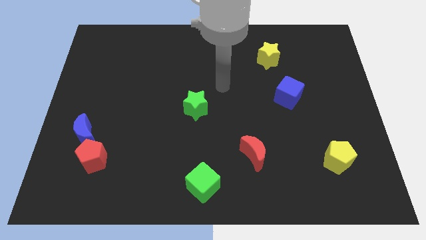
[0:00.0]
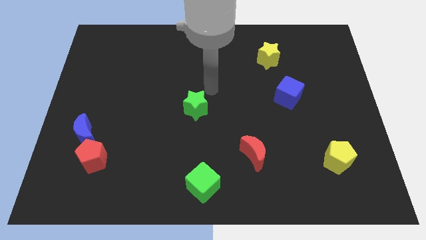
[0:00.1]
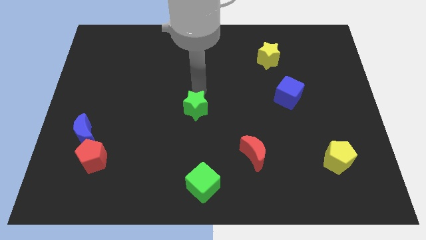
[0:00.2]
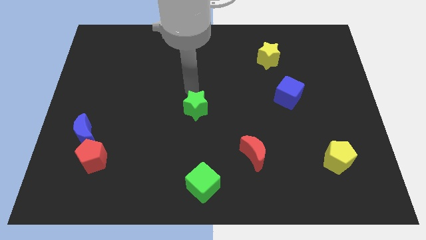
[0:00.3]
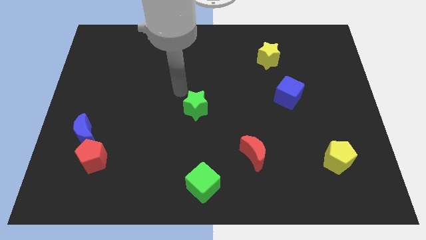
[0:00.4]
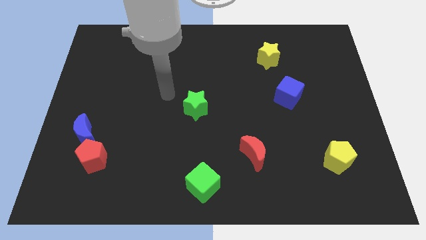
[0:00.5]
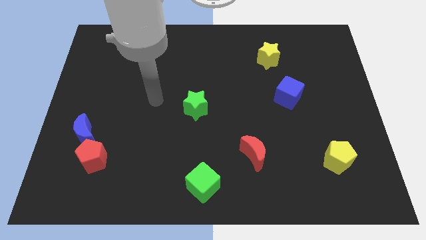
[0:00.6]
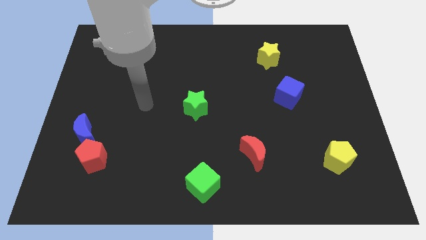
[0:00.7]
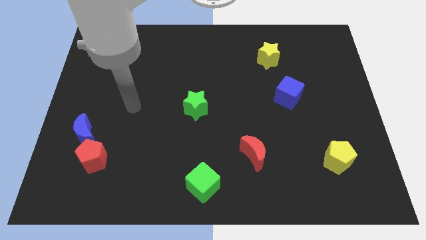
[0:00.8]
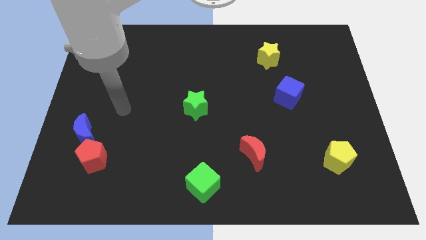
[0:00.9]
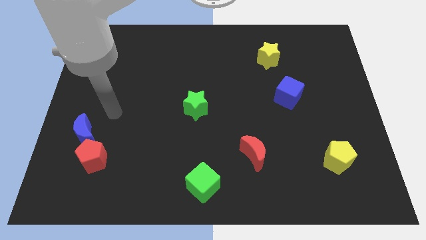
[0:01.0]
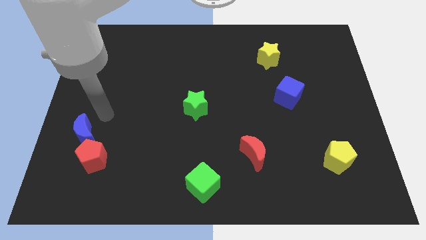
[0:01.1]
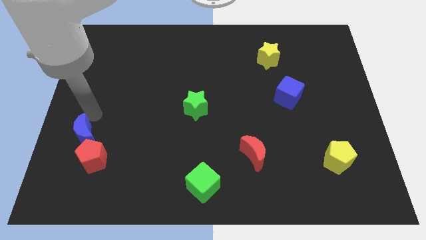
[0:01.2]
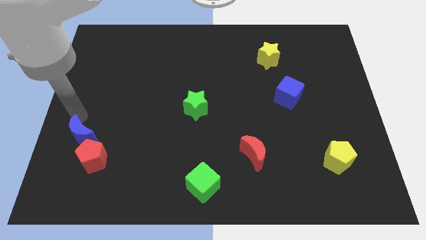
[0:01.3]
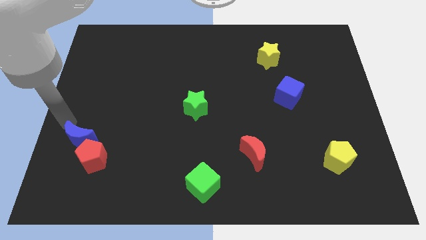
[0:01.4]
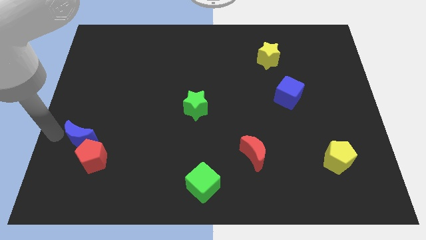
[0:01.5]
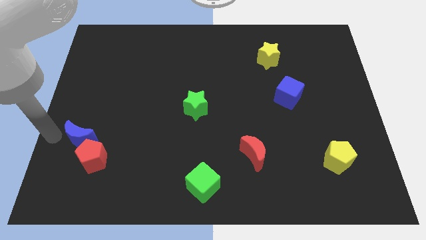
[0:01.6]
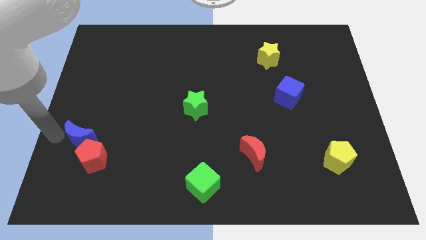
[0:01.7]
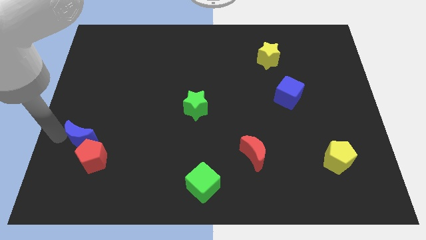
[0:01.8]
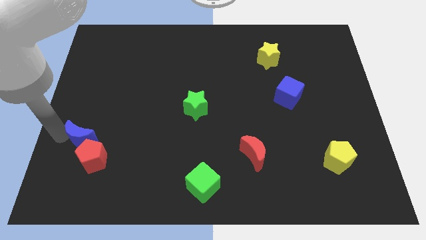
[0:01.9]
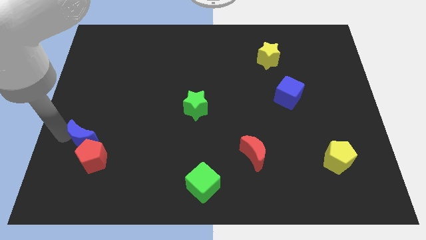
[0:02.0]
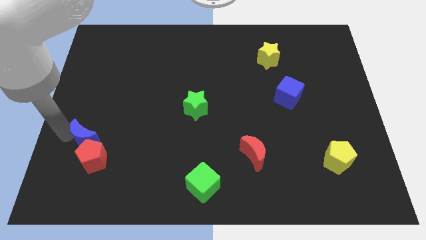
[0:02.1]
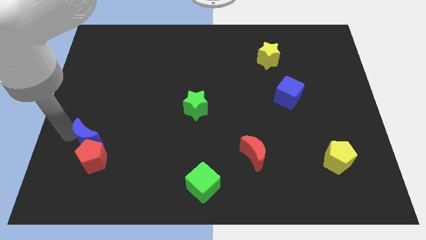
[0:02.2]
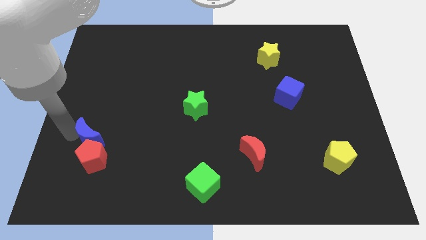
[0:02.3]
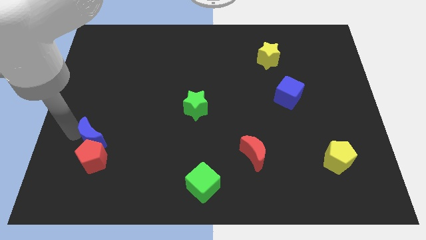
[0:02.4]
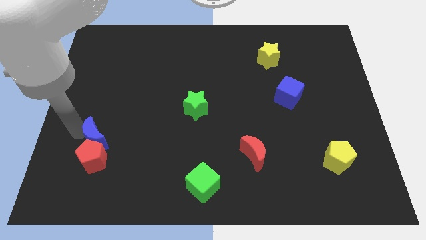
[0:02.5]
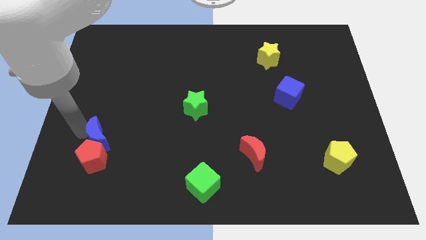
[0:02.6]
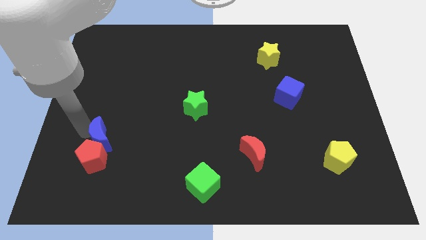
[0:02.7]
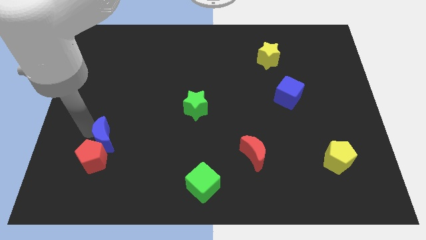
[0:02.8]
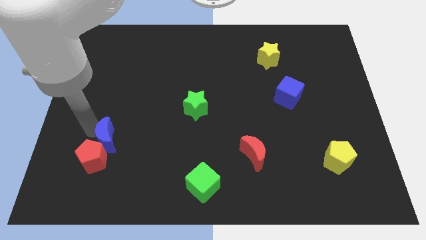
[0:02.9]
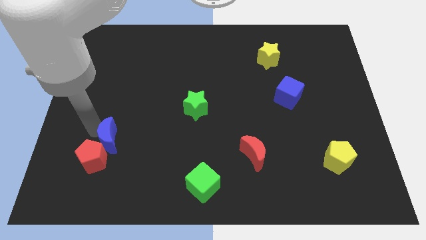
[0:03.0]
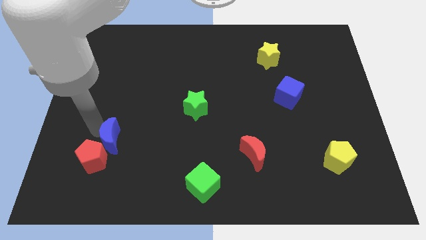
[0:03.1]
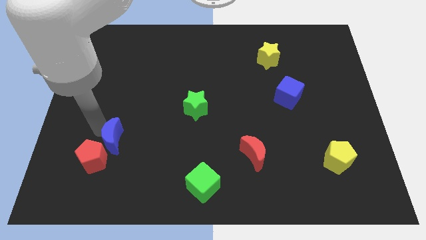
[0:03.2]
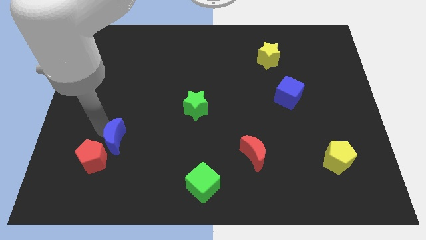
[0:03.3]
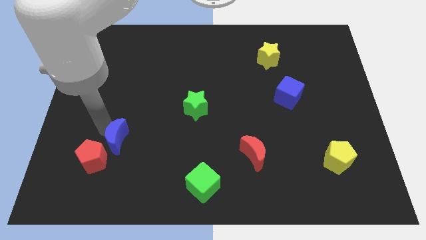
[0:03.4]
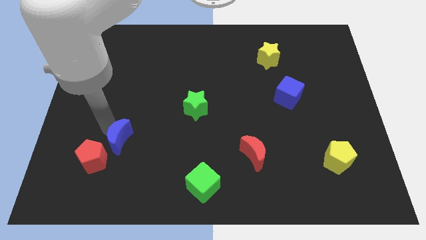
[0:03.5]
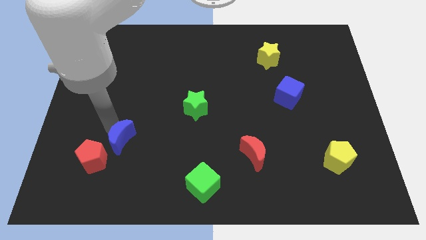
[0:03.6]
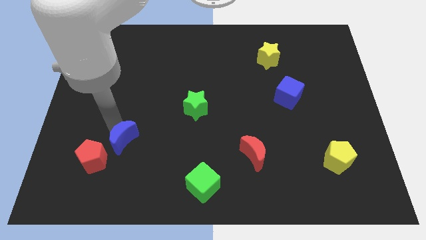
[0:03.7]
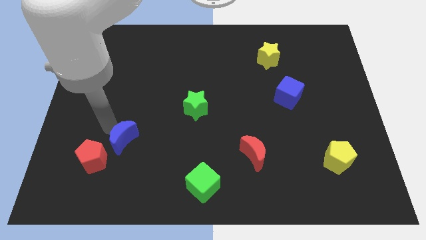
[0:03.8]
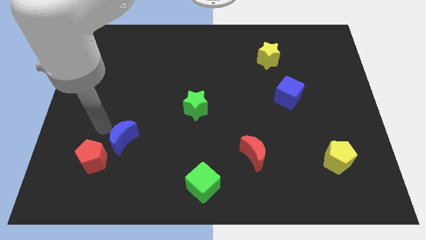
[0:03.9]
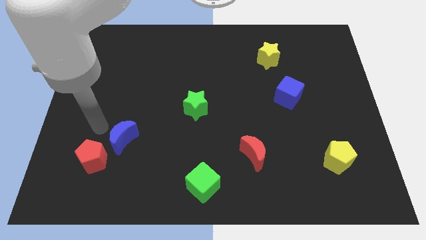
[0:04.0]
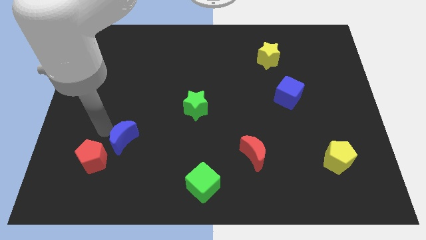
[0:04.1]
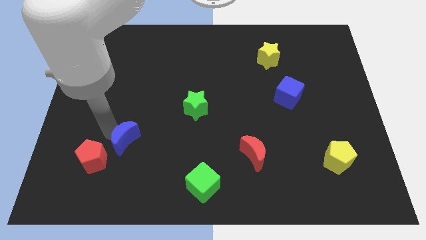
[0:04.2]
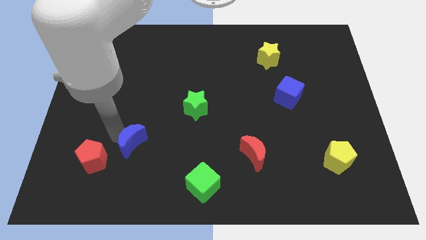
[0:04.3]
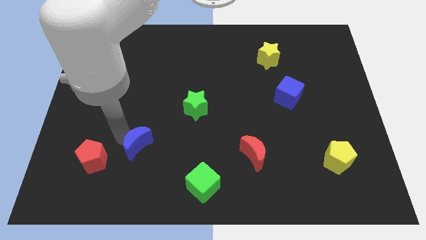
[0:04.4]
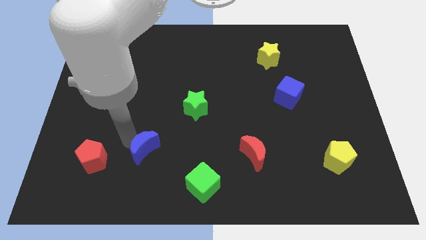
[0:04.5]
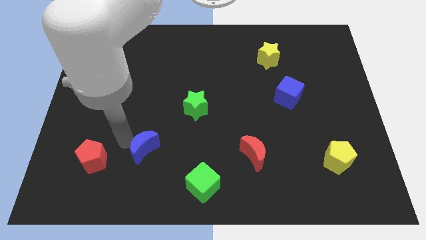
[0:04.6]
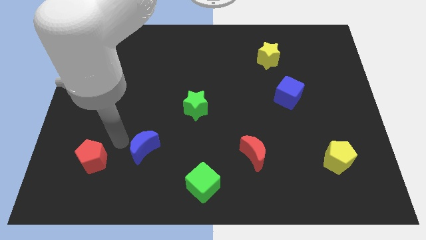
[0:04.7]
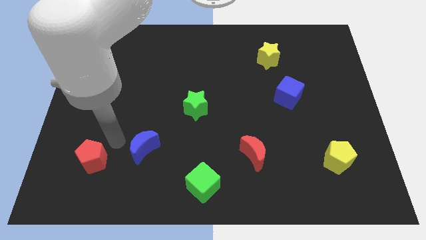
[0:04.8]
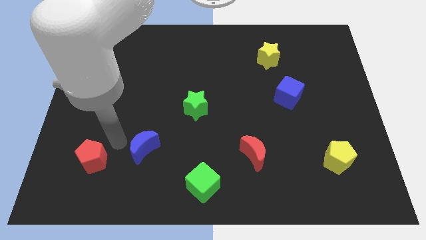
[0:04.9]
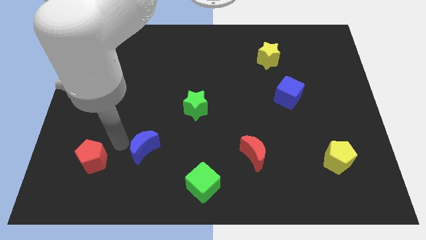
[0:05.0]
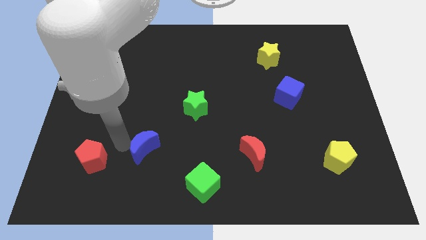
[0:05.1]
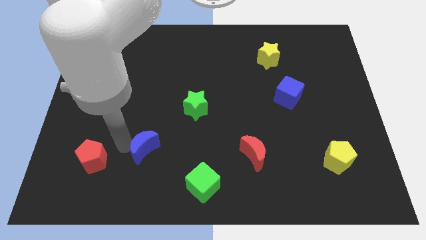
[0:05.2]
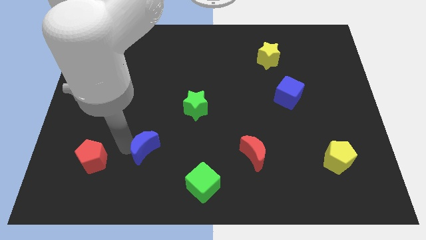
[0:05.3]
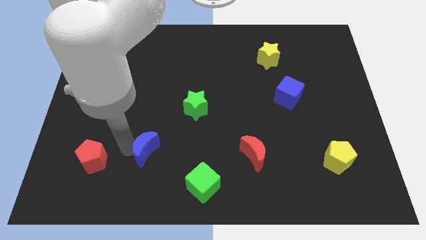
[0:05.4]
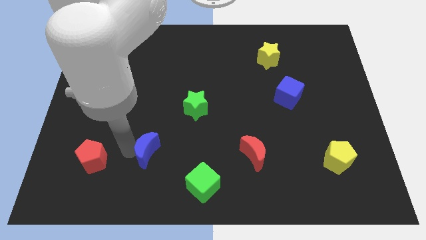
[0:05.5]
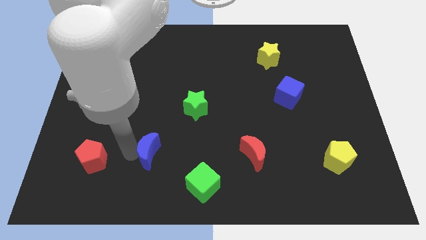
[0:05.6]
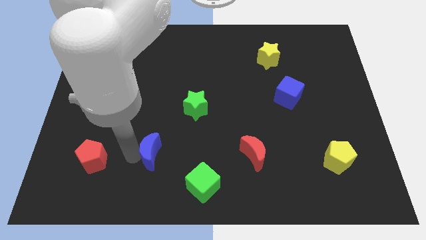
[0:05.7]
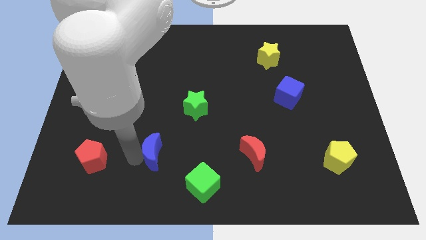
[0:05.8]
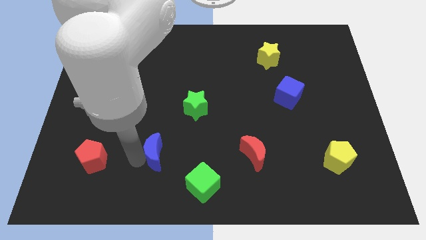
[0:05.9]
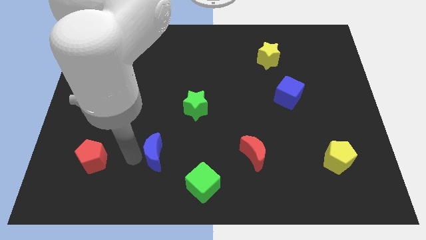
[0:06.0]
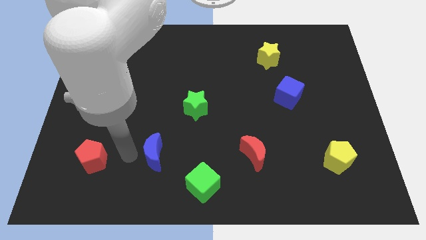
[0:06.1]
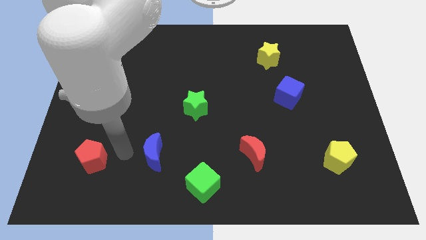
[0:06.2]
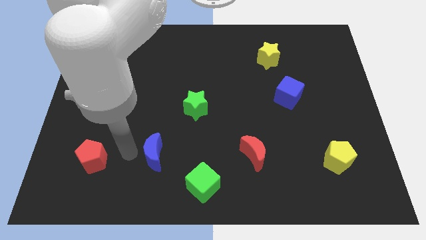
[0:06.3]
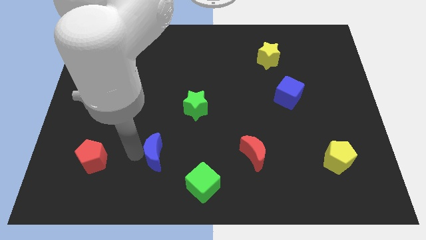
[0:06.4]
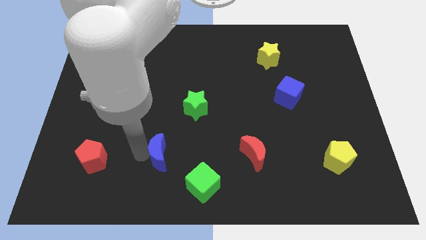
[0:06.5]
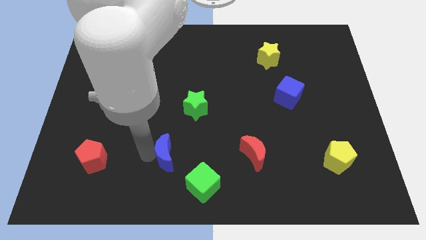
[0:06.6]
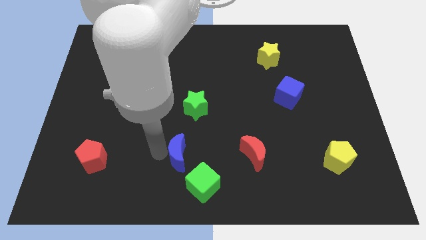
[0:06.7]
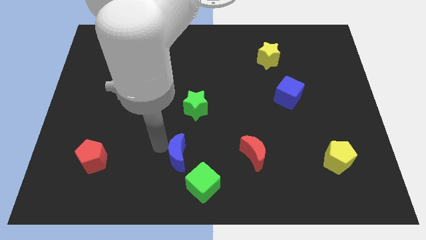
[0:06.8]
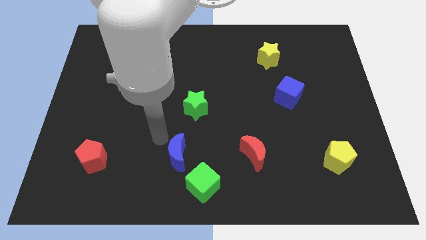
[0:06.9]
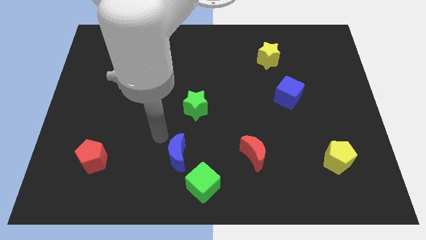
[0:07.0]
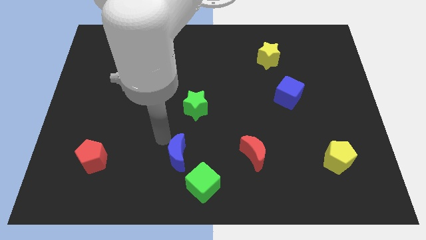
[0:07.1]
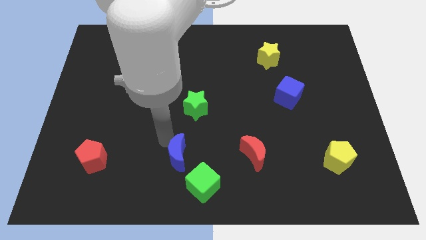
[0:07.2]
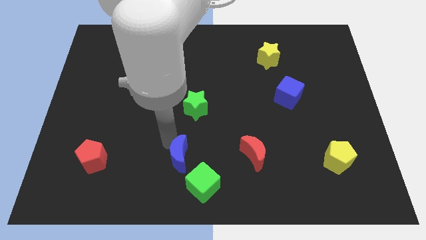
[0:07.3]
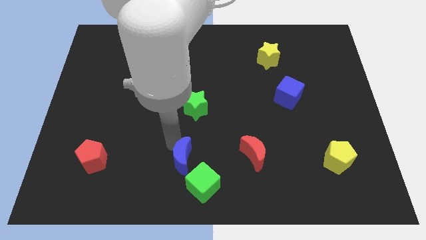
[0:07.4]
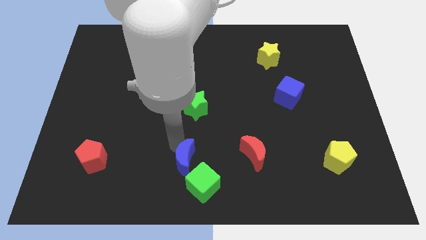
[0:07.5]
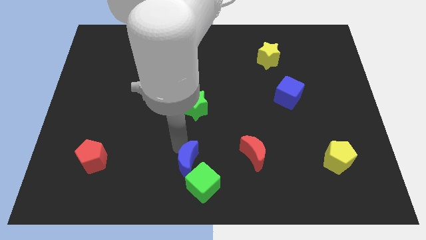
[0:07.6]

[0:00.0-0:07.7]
push the blue moon close to the green cube
